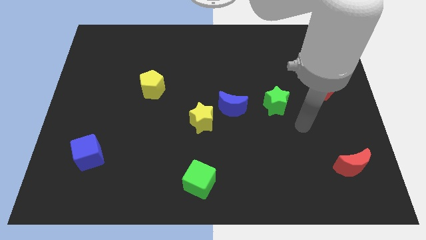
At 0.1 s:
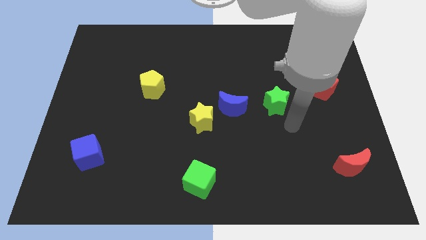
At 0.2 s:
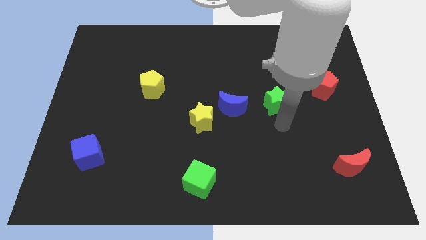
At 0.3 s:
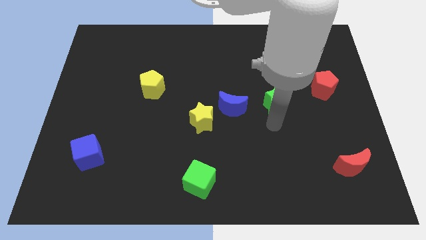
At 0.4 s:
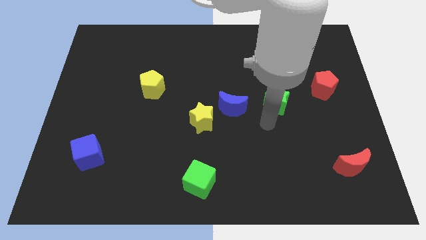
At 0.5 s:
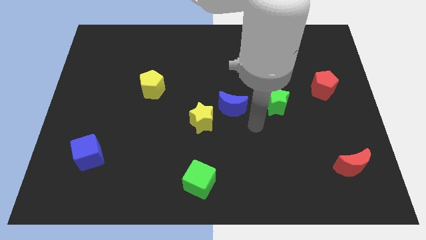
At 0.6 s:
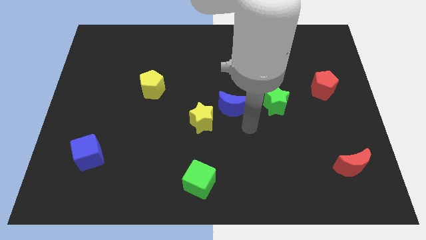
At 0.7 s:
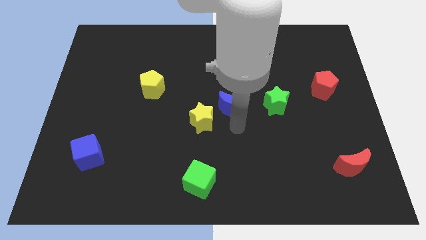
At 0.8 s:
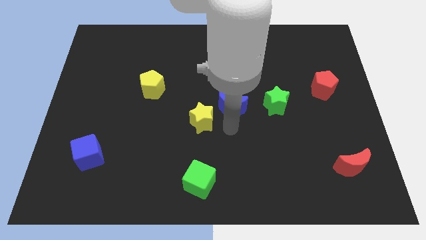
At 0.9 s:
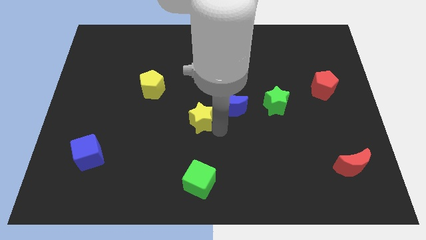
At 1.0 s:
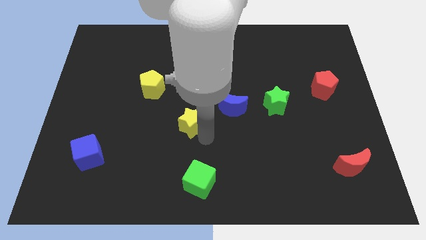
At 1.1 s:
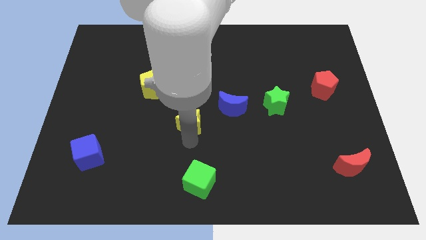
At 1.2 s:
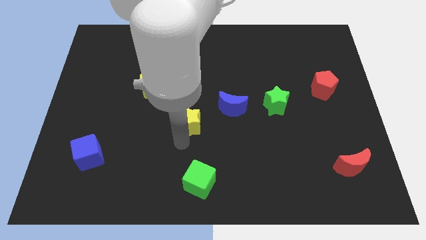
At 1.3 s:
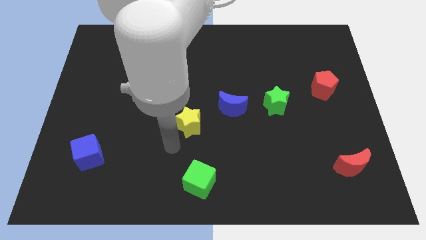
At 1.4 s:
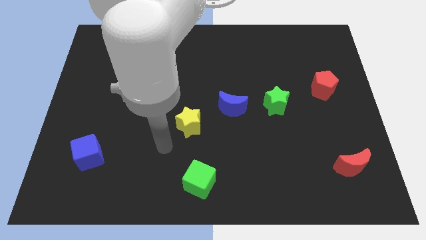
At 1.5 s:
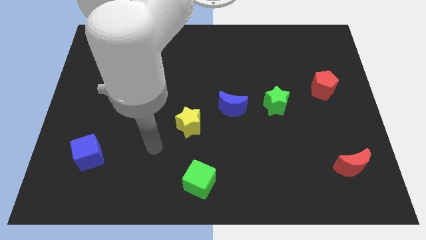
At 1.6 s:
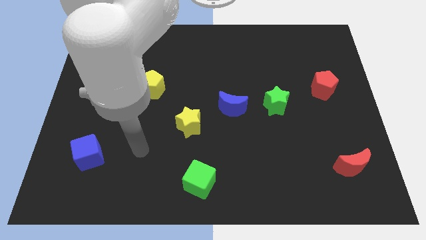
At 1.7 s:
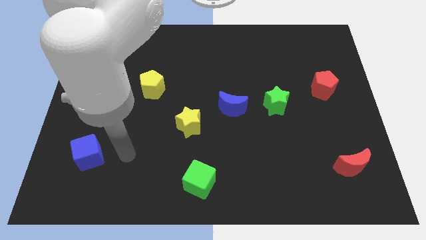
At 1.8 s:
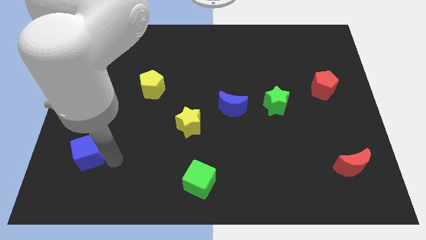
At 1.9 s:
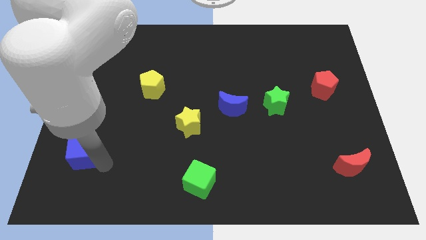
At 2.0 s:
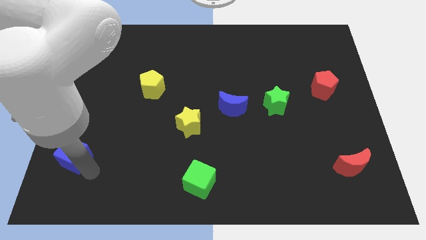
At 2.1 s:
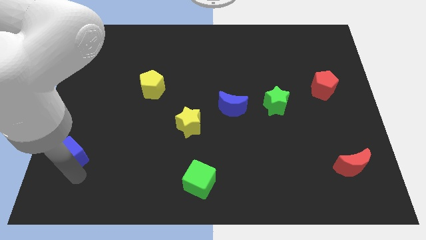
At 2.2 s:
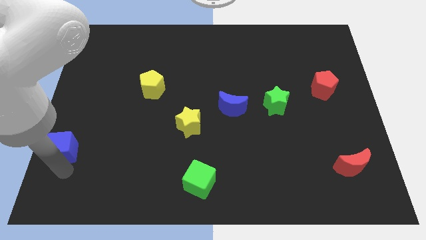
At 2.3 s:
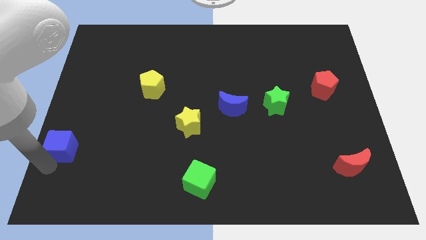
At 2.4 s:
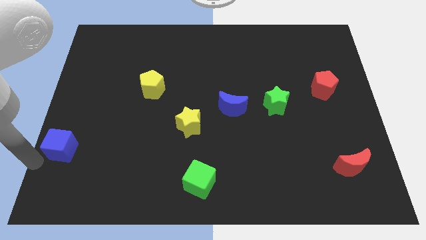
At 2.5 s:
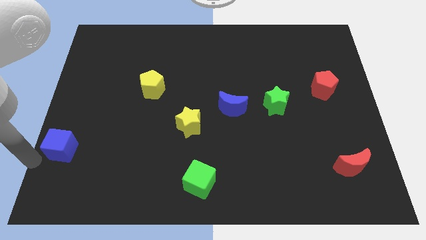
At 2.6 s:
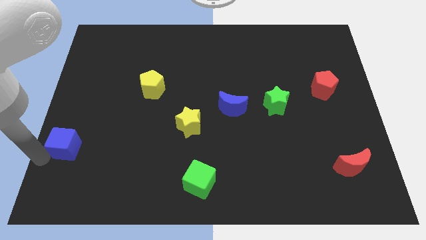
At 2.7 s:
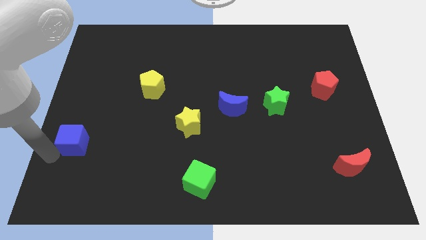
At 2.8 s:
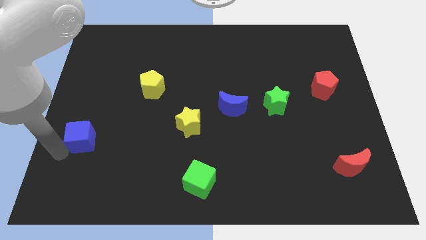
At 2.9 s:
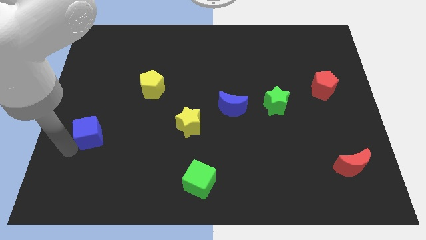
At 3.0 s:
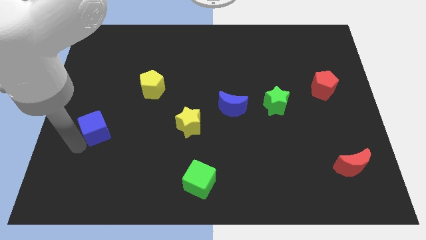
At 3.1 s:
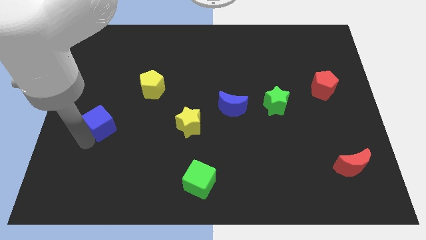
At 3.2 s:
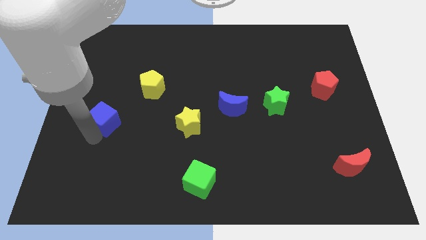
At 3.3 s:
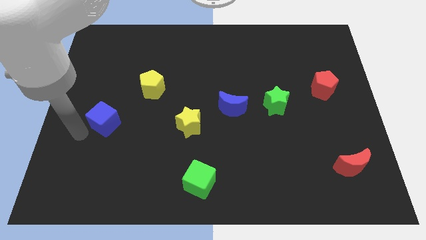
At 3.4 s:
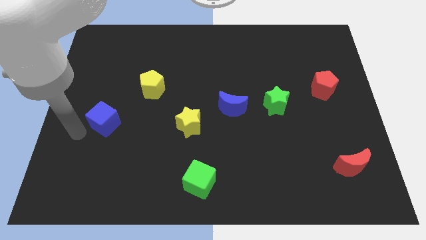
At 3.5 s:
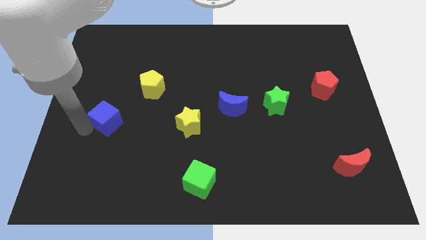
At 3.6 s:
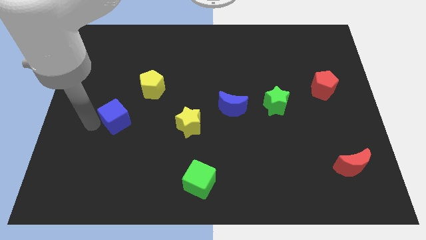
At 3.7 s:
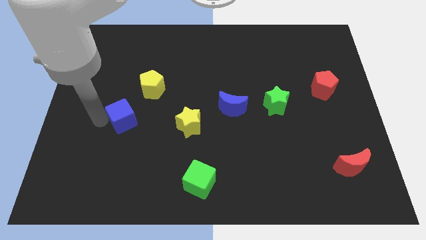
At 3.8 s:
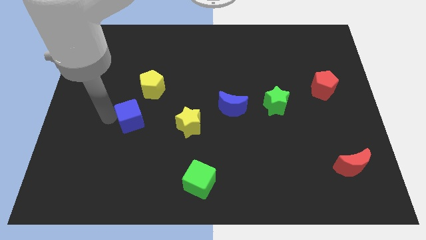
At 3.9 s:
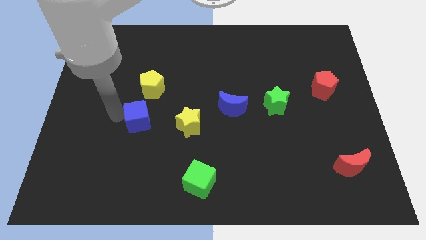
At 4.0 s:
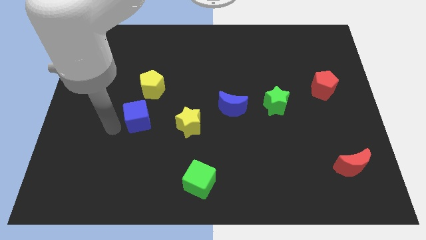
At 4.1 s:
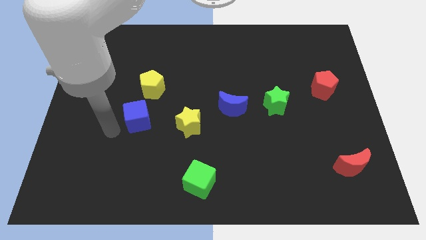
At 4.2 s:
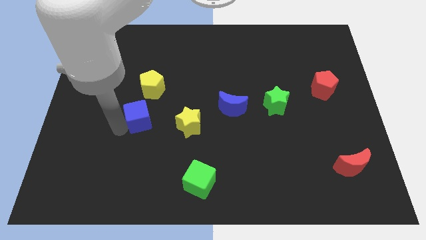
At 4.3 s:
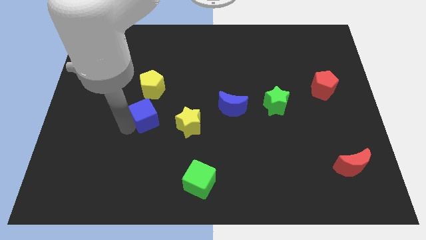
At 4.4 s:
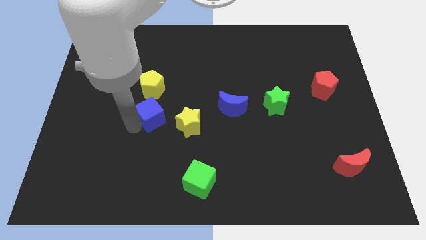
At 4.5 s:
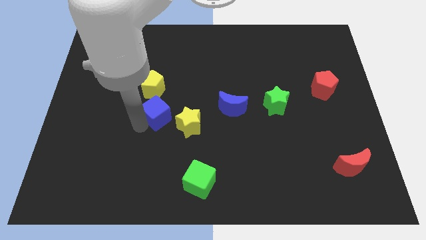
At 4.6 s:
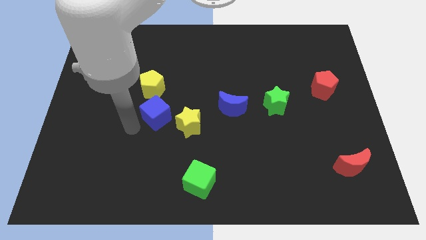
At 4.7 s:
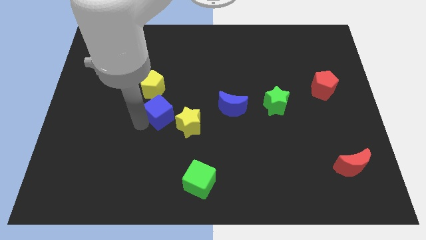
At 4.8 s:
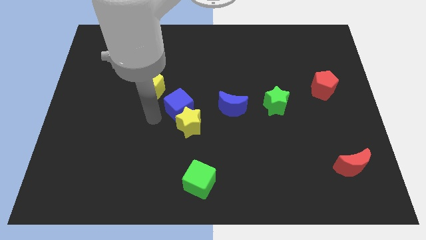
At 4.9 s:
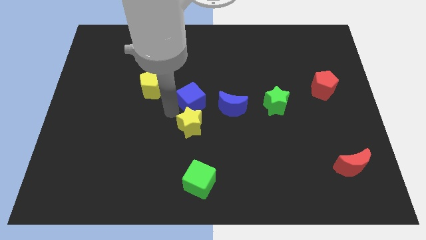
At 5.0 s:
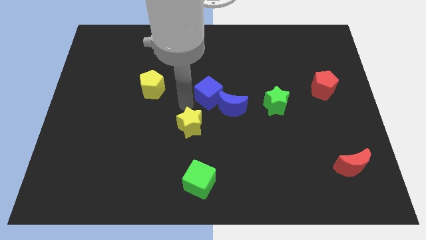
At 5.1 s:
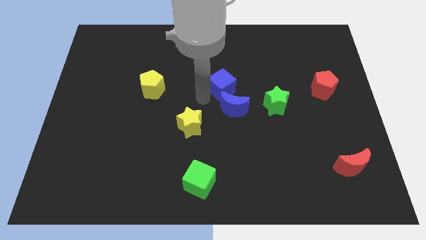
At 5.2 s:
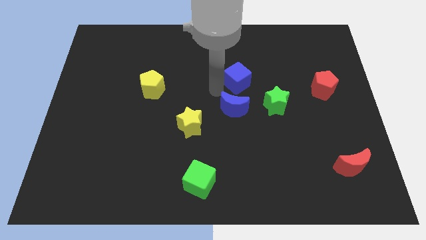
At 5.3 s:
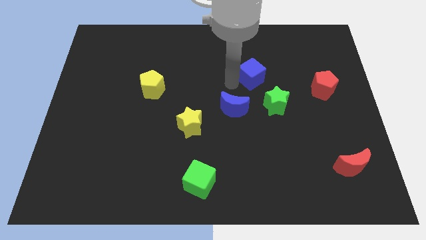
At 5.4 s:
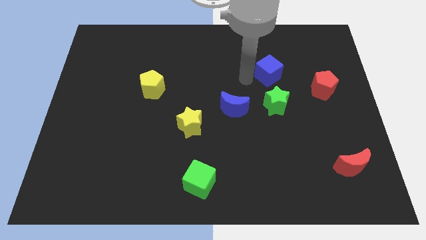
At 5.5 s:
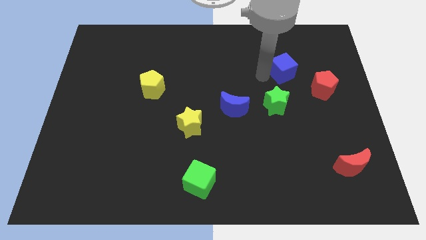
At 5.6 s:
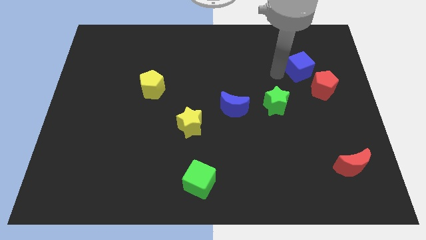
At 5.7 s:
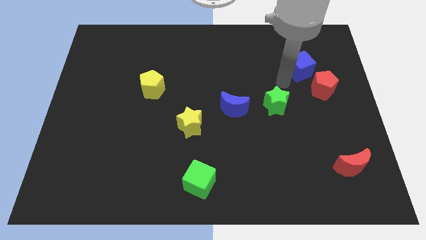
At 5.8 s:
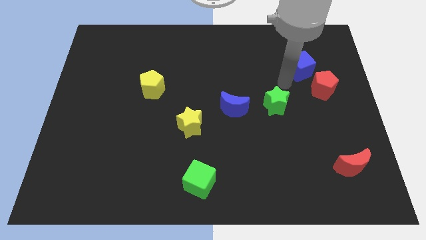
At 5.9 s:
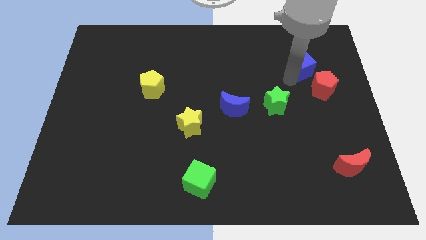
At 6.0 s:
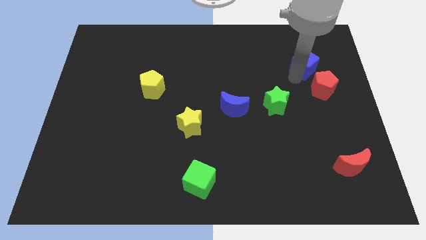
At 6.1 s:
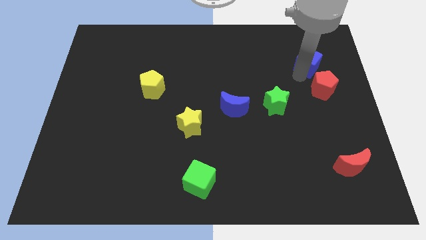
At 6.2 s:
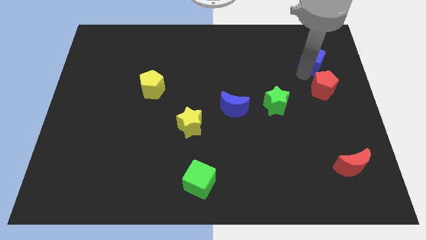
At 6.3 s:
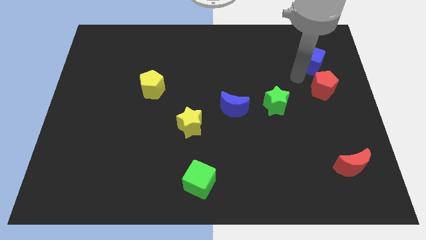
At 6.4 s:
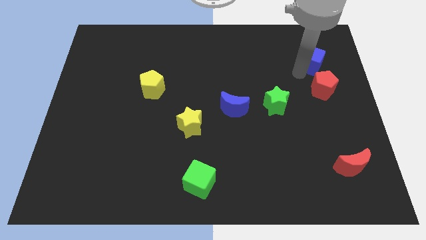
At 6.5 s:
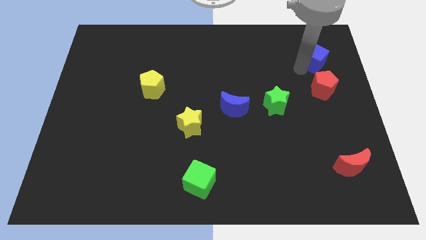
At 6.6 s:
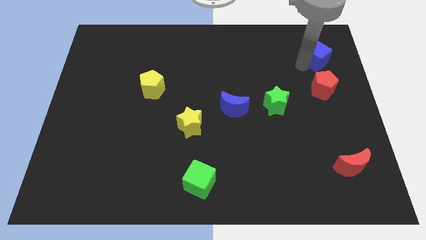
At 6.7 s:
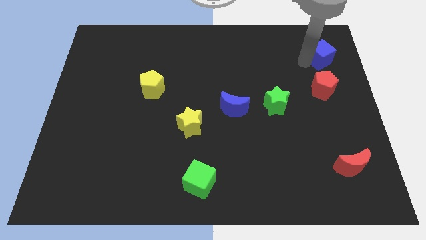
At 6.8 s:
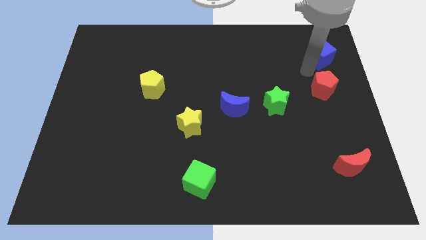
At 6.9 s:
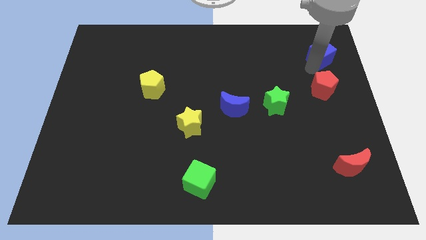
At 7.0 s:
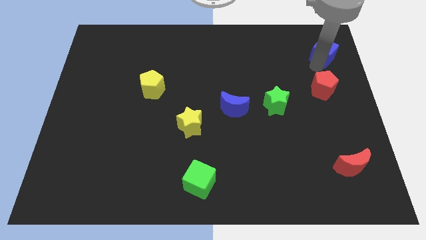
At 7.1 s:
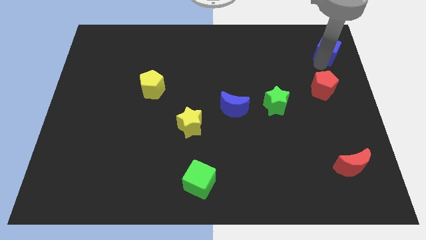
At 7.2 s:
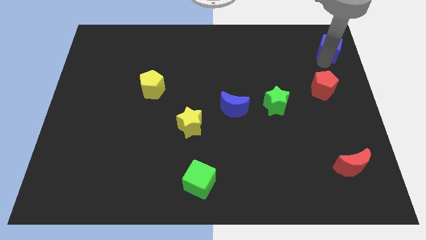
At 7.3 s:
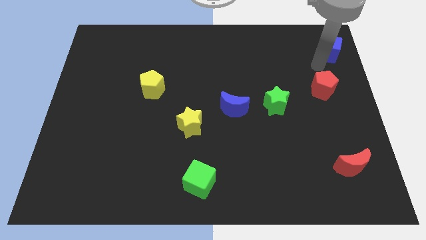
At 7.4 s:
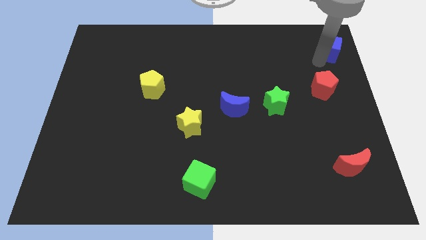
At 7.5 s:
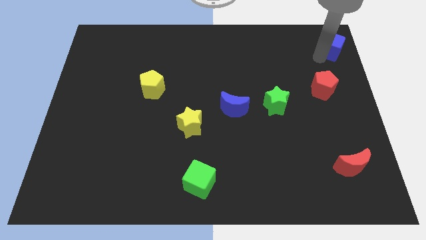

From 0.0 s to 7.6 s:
move the blue cube to the top right of the board
